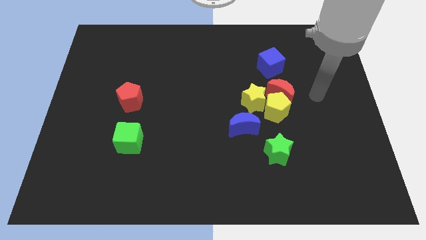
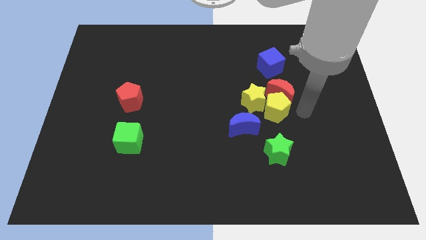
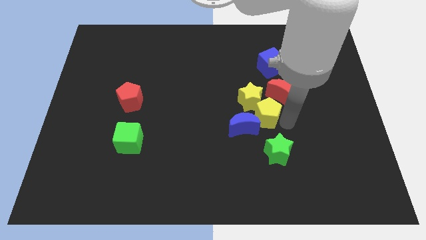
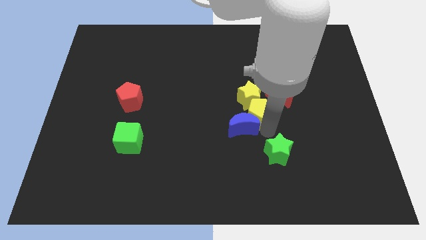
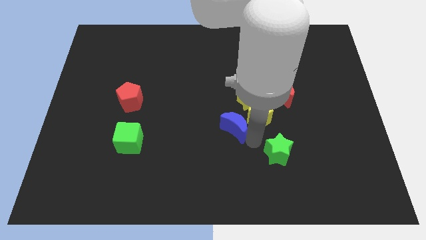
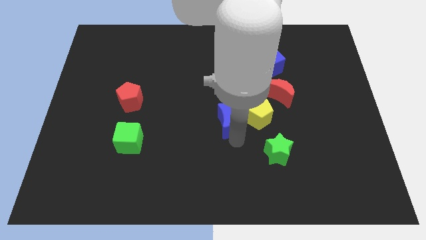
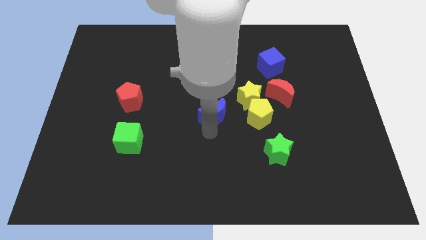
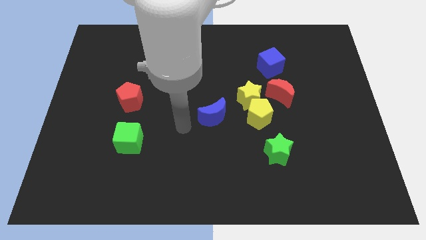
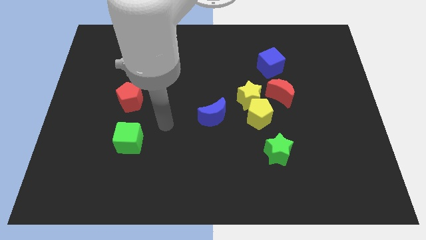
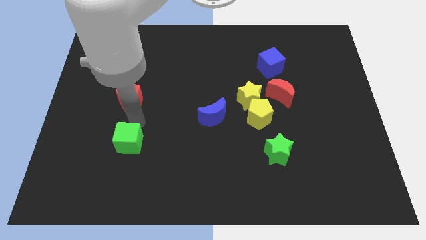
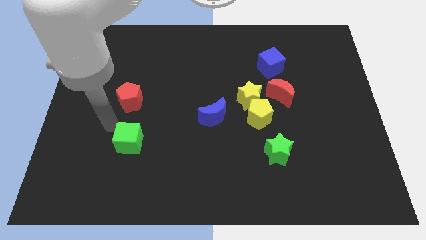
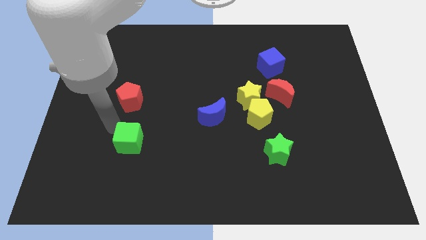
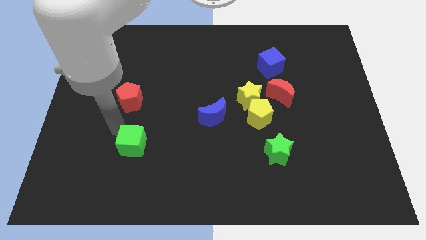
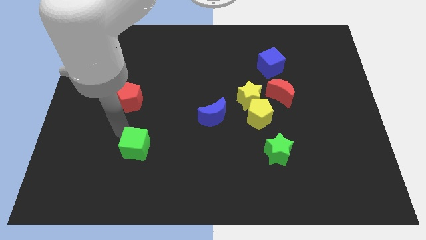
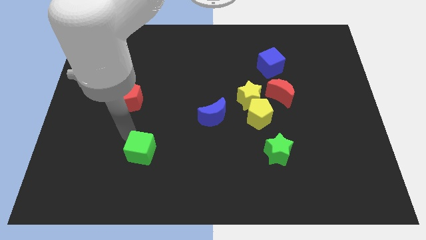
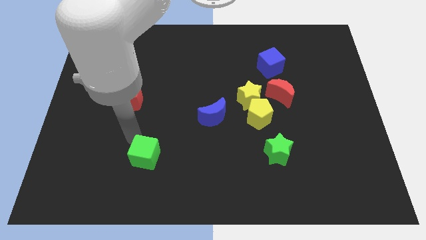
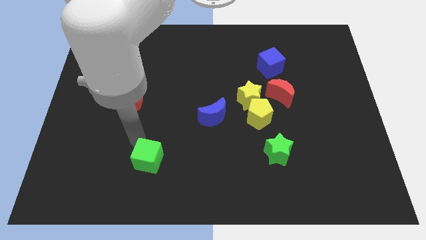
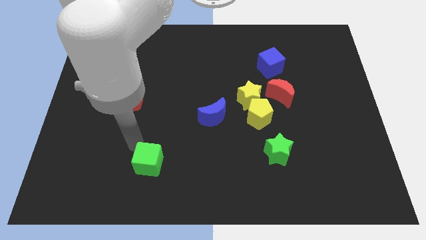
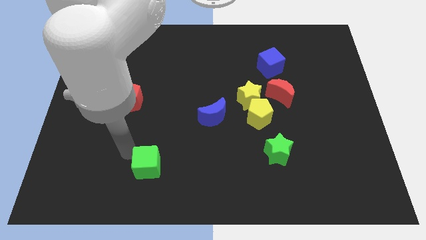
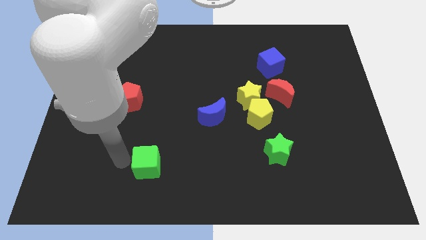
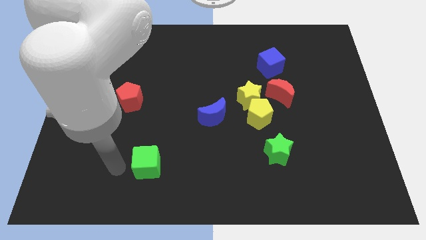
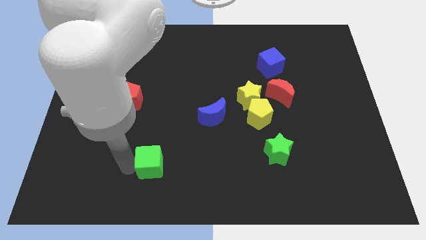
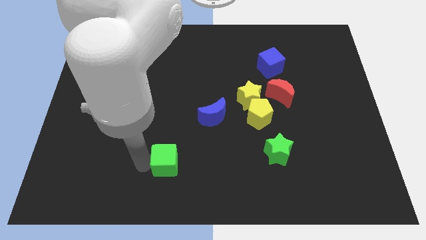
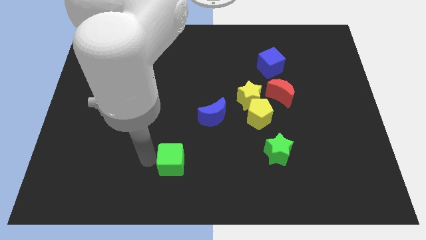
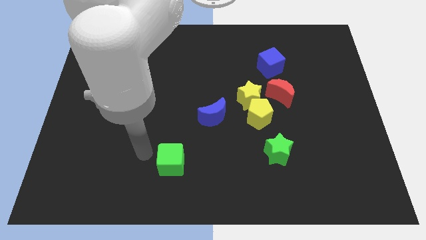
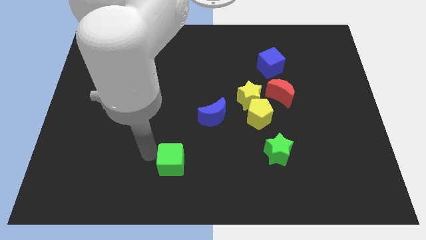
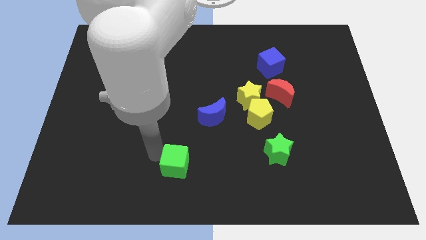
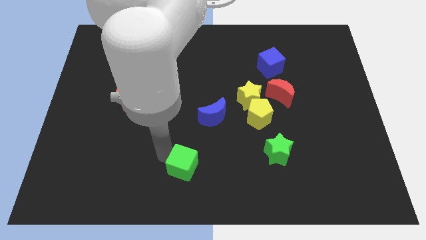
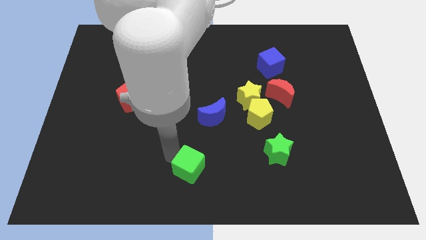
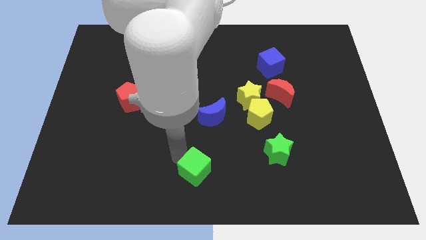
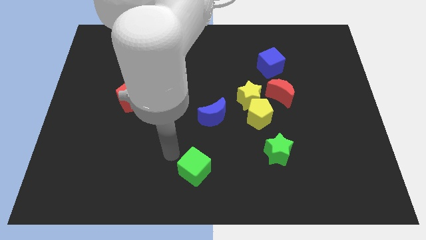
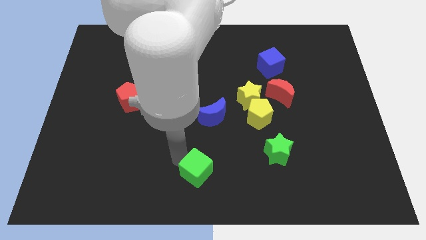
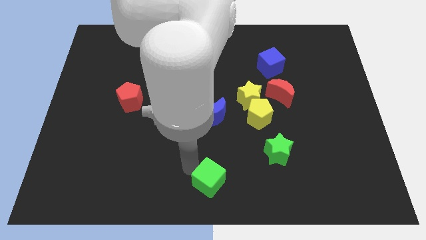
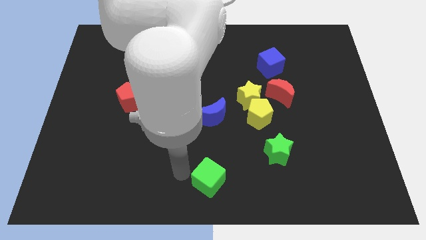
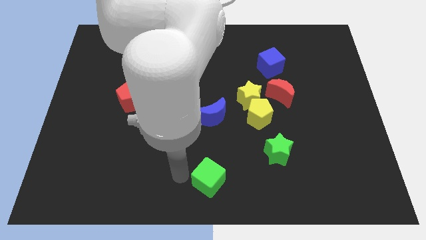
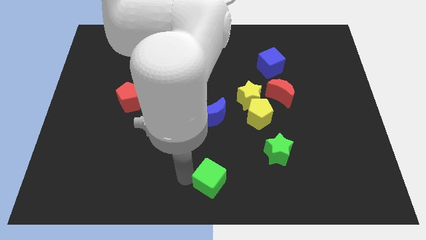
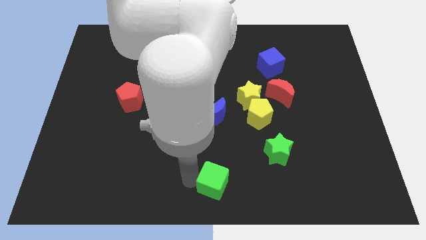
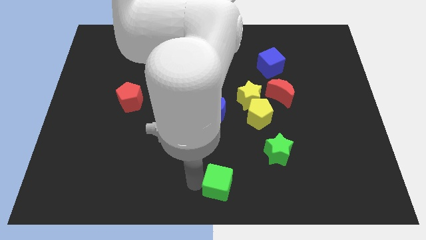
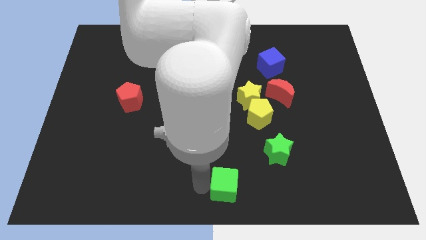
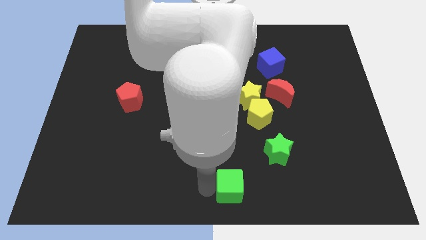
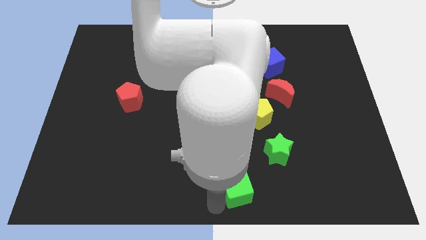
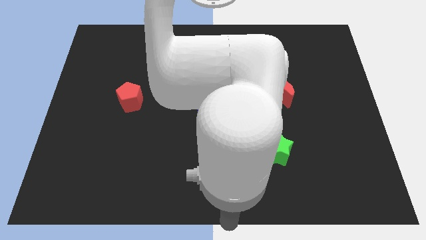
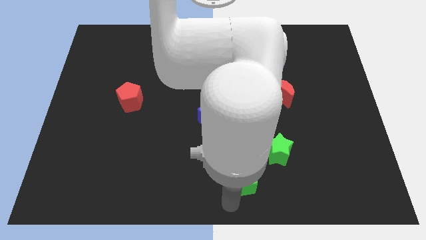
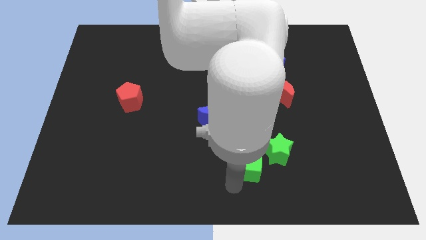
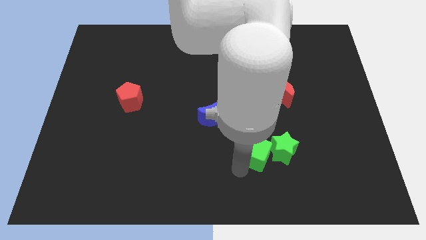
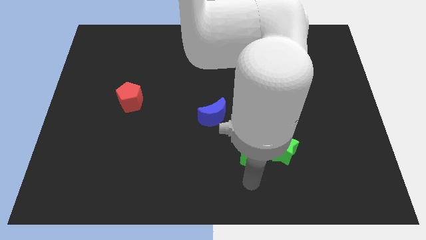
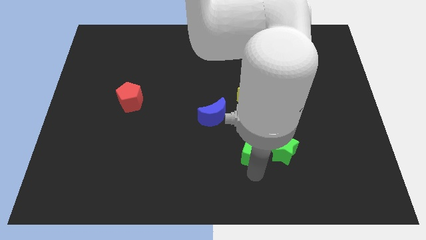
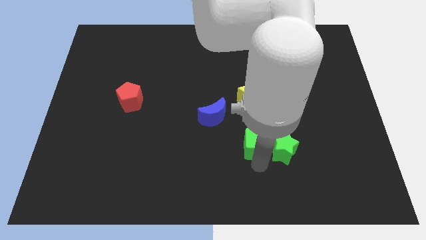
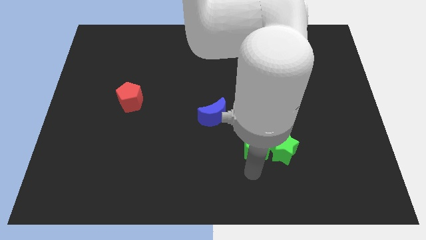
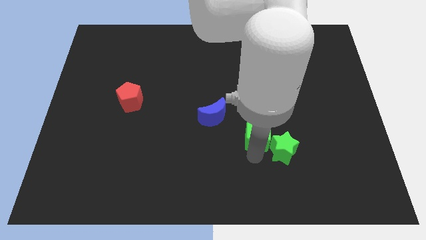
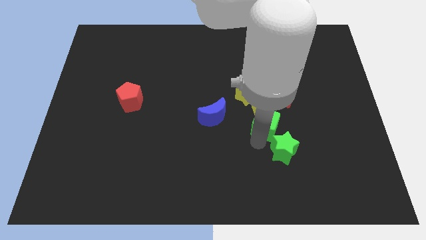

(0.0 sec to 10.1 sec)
slide the green cube diagonally down and to the left of the red moon

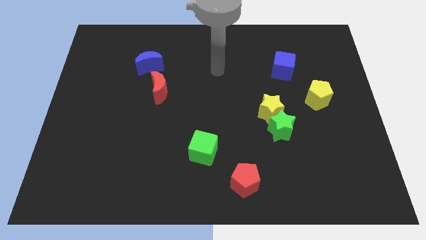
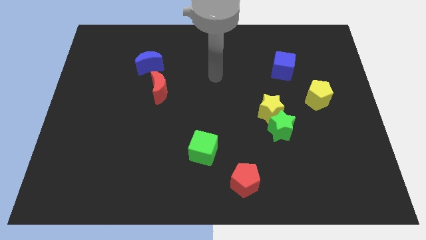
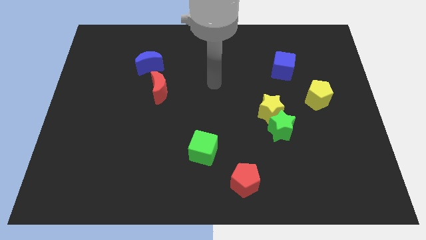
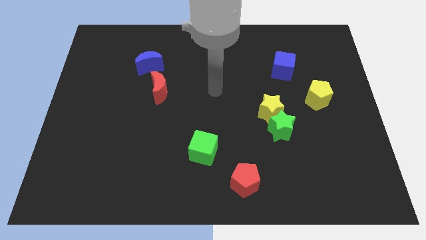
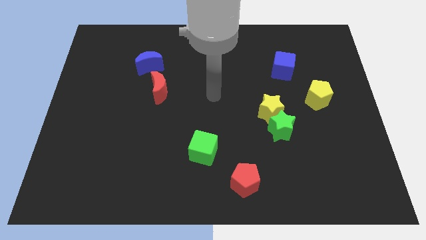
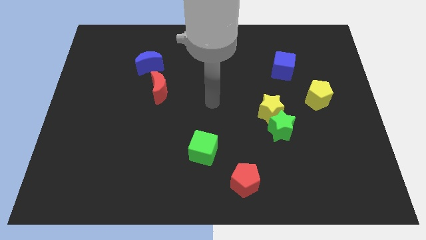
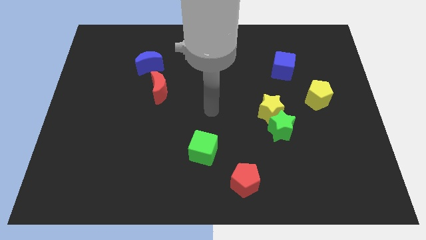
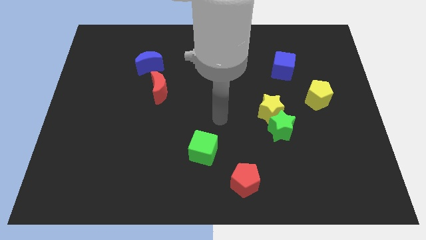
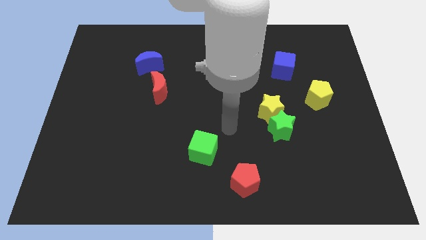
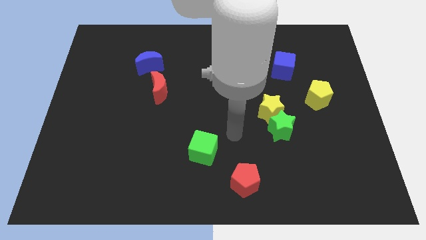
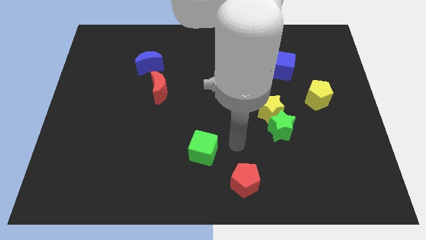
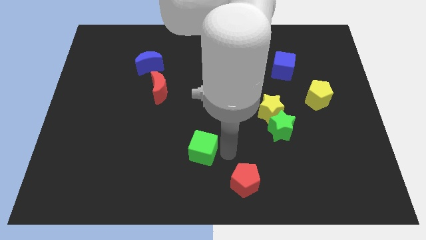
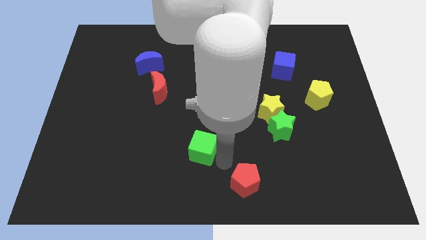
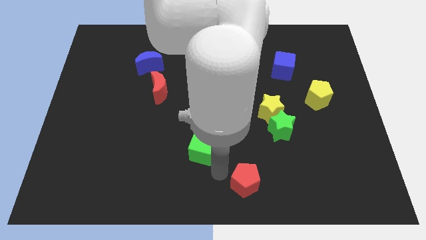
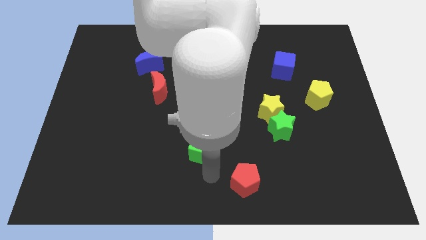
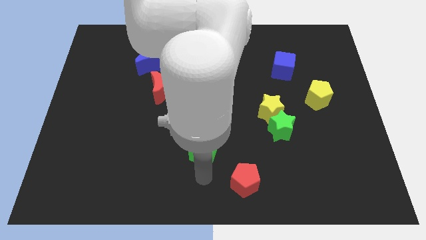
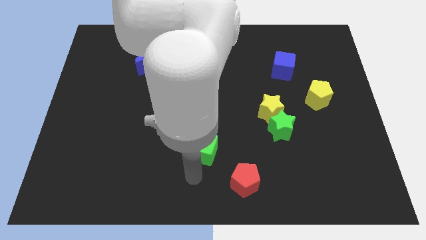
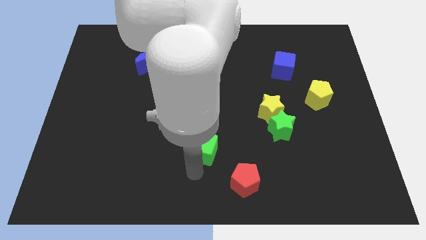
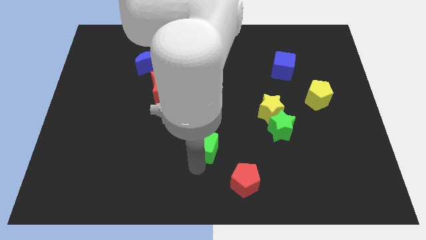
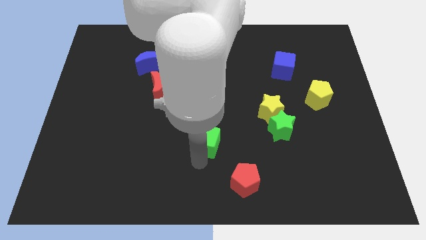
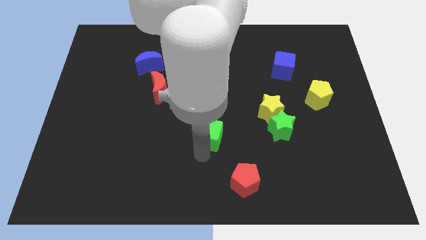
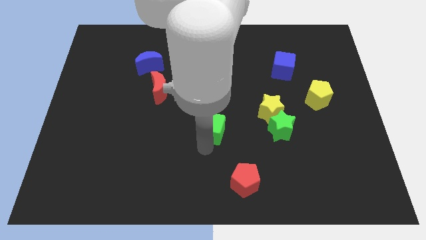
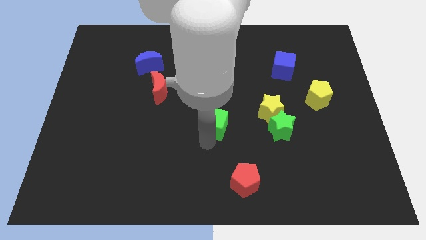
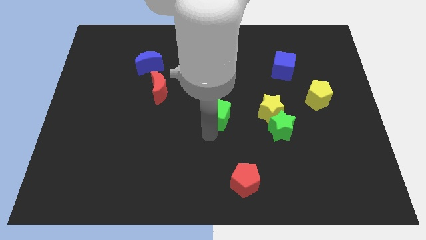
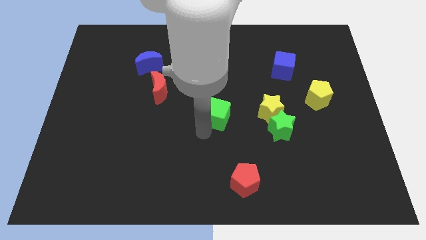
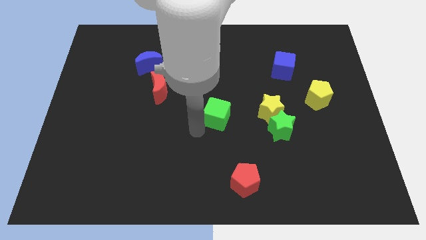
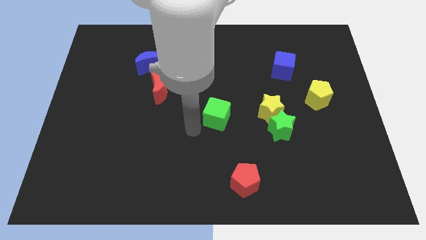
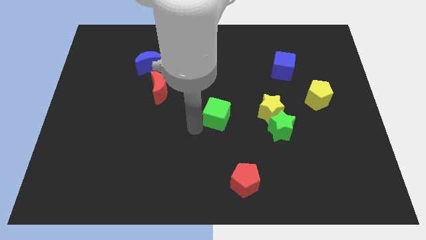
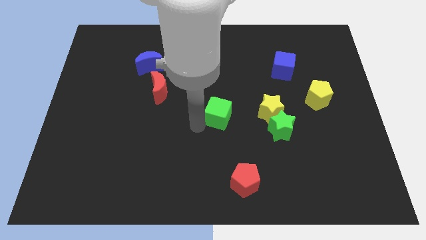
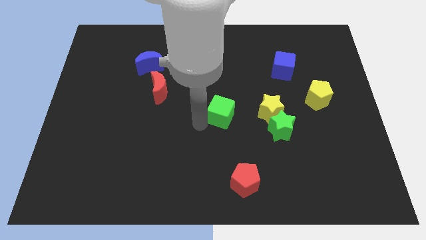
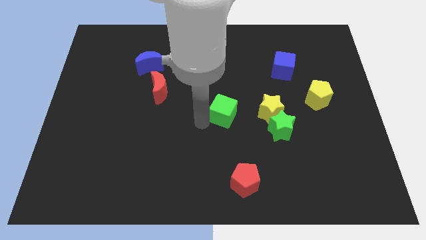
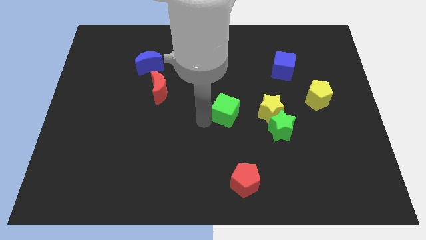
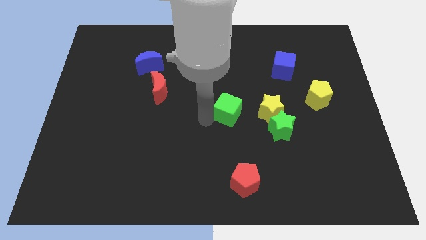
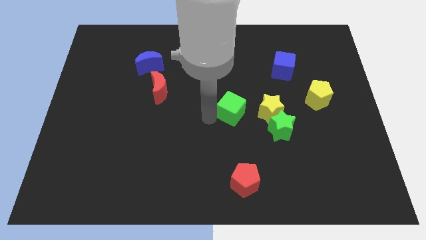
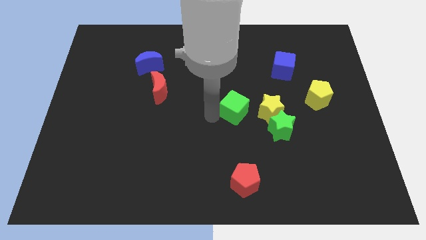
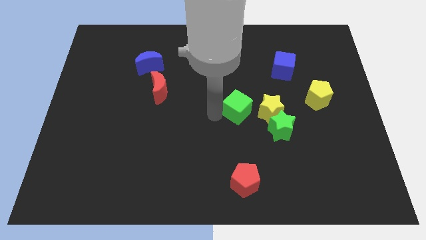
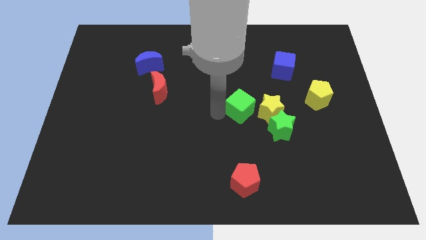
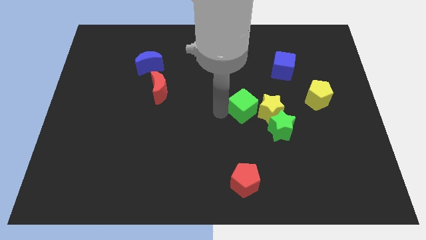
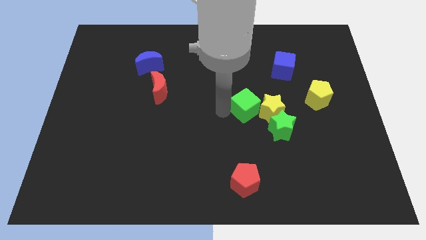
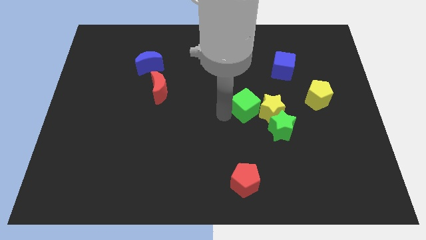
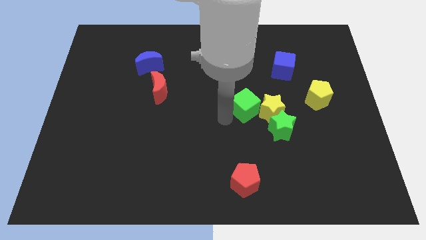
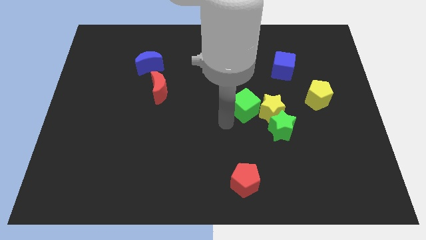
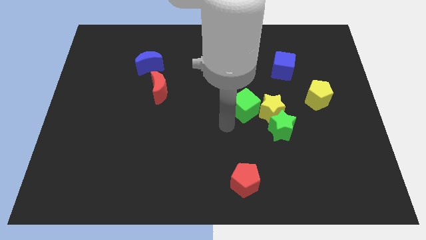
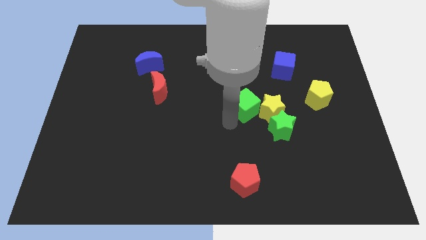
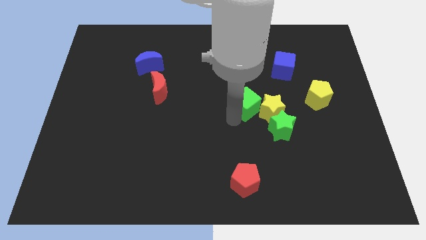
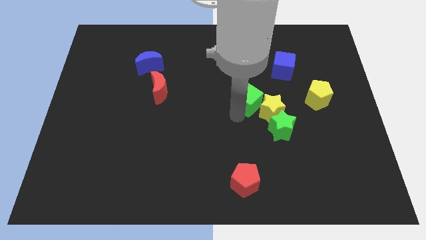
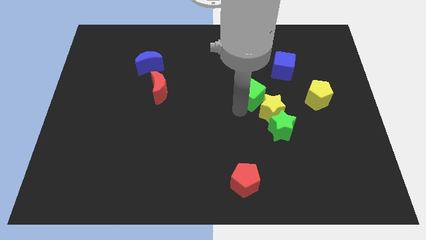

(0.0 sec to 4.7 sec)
put the green cube left of the yellow pentagon
